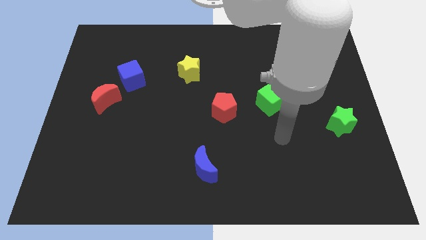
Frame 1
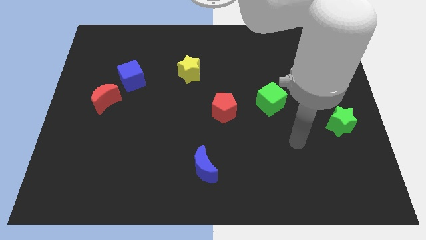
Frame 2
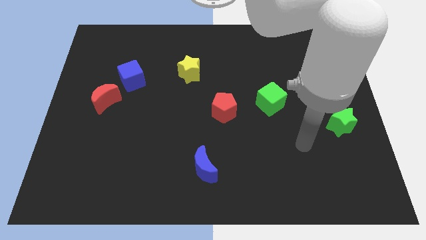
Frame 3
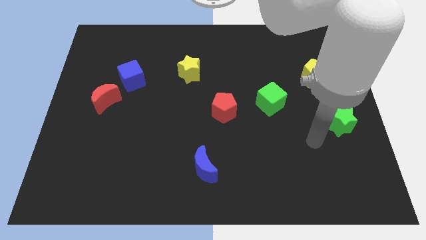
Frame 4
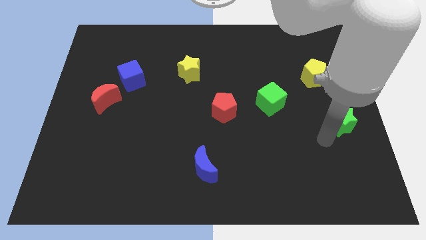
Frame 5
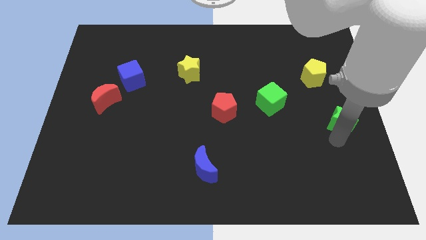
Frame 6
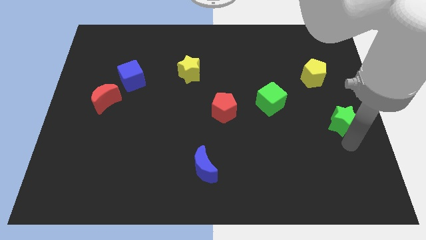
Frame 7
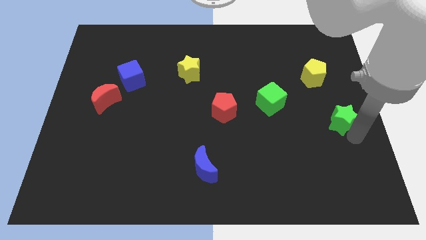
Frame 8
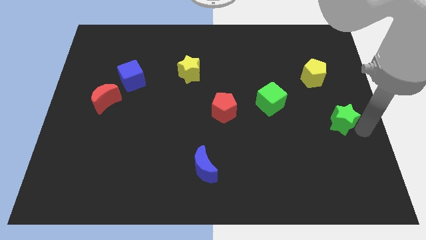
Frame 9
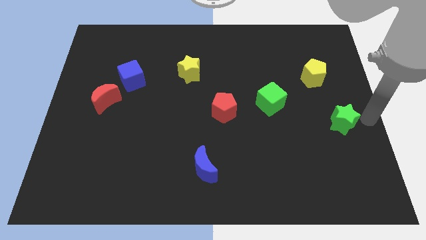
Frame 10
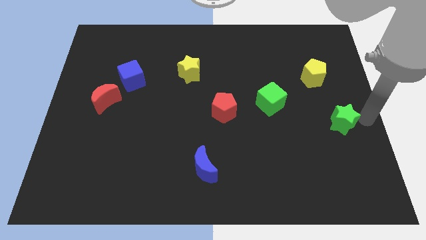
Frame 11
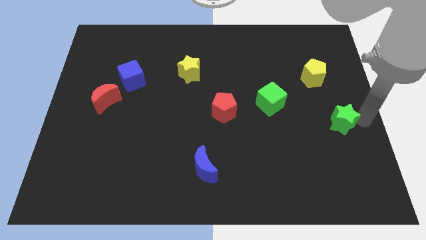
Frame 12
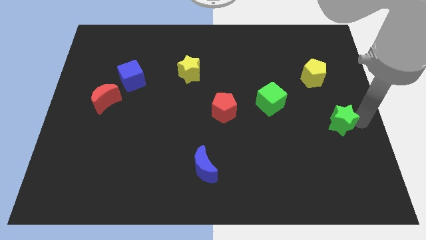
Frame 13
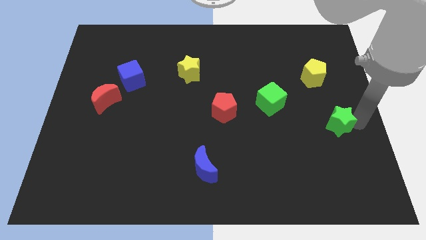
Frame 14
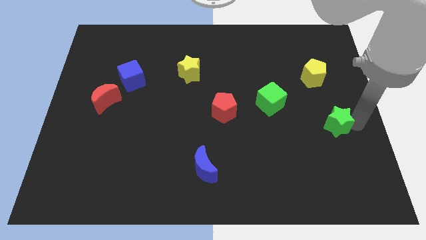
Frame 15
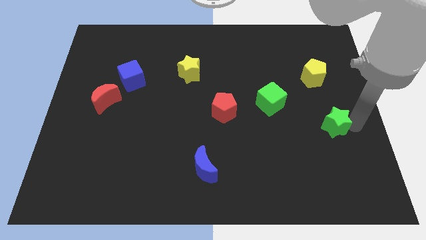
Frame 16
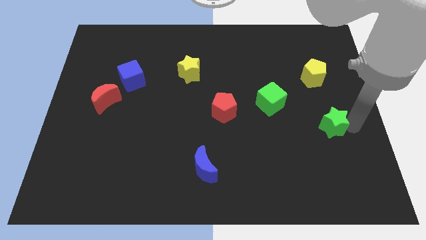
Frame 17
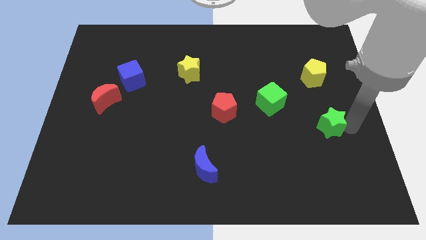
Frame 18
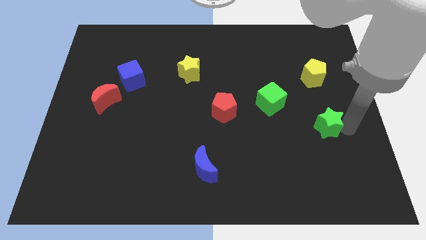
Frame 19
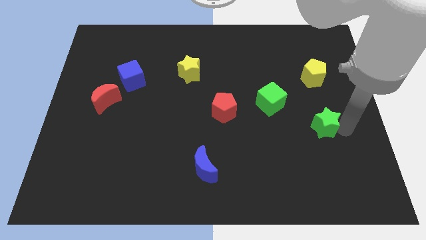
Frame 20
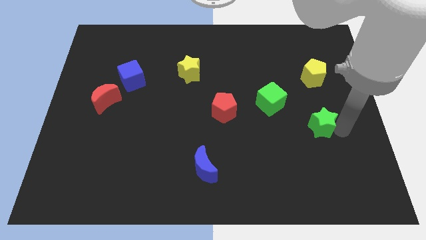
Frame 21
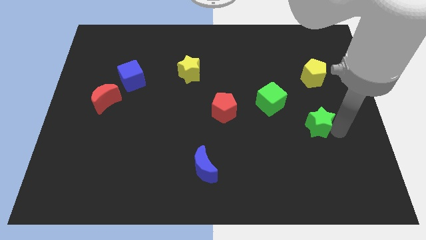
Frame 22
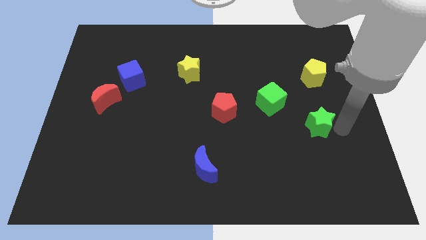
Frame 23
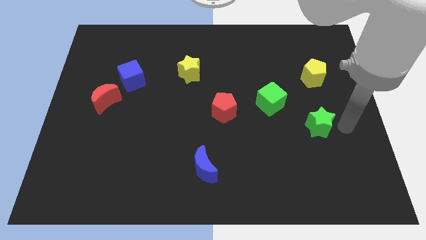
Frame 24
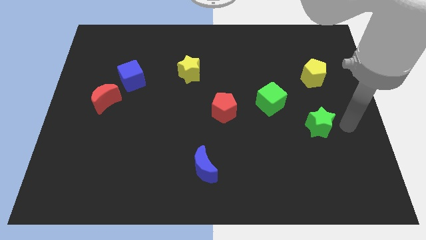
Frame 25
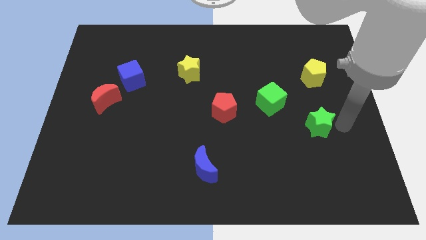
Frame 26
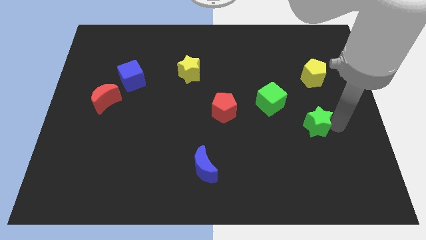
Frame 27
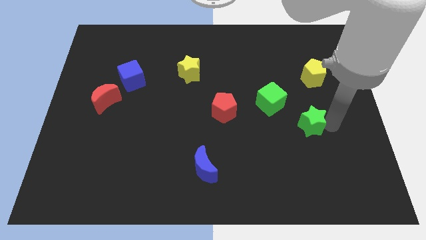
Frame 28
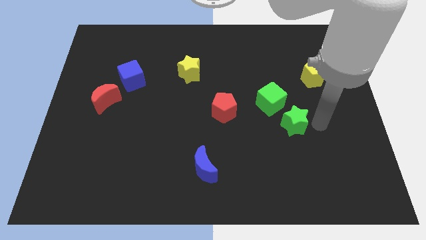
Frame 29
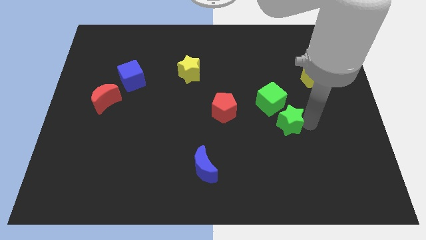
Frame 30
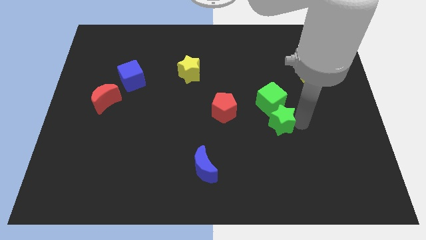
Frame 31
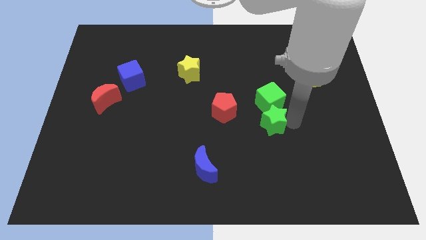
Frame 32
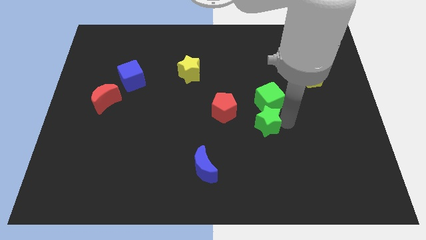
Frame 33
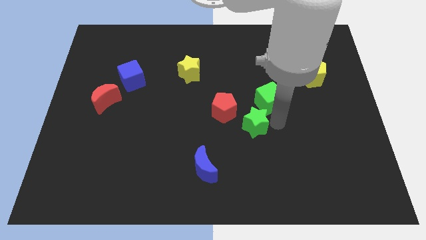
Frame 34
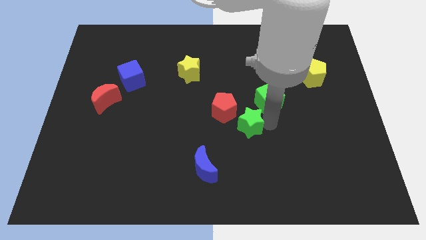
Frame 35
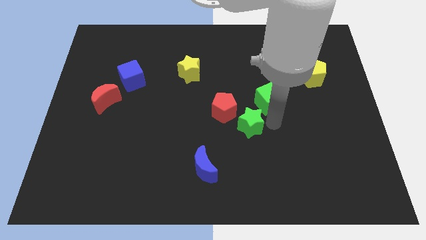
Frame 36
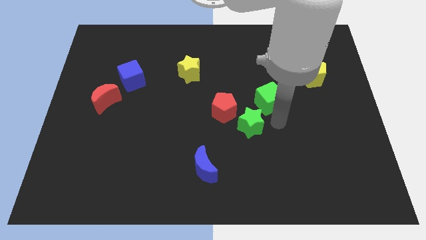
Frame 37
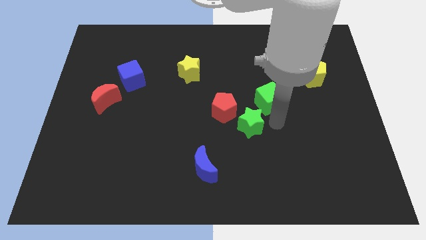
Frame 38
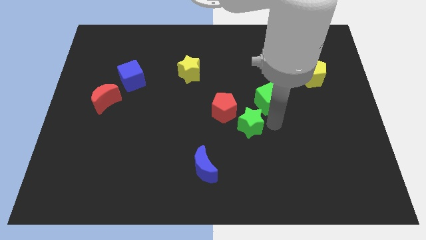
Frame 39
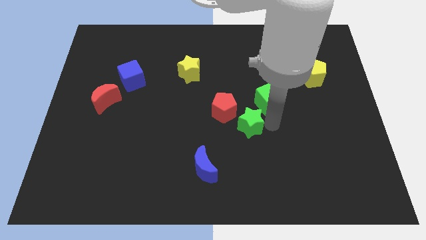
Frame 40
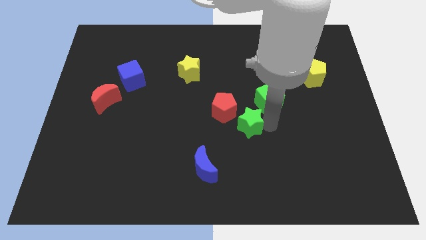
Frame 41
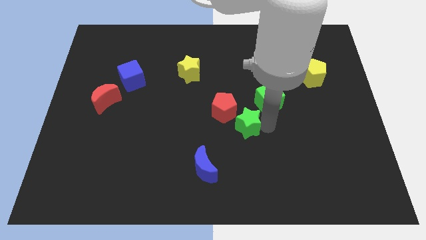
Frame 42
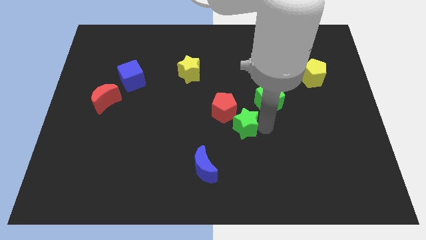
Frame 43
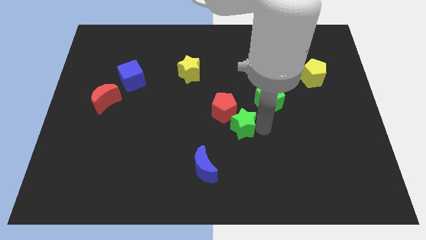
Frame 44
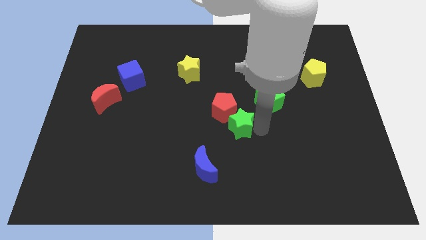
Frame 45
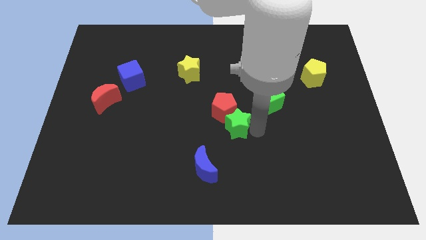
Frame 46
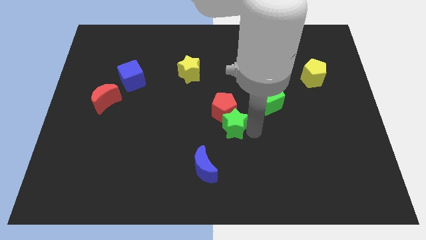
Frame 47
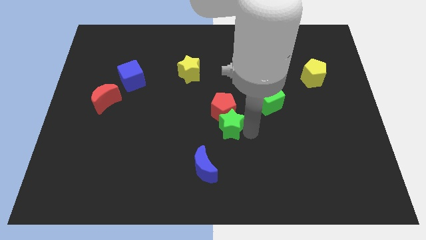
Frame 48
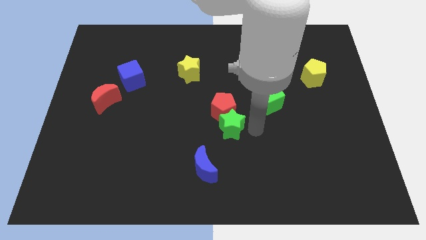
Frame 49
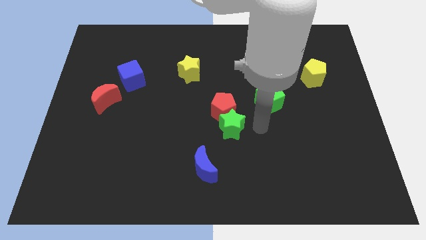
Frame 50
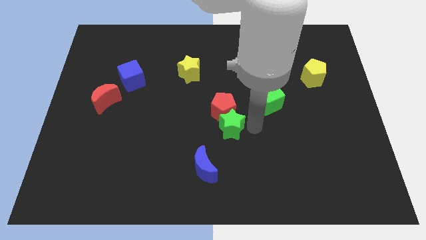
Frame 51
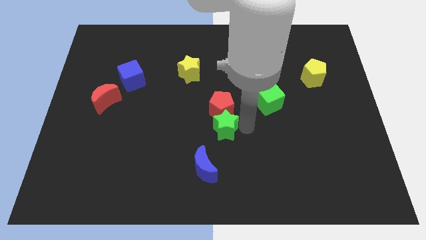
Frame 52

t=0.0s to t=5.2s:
slide the green star to the top side of the blue moon

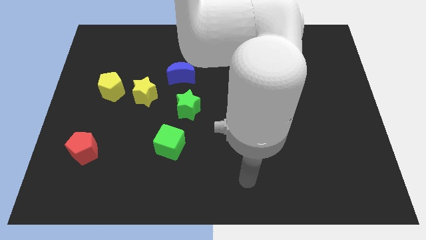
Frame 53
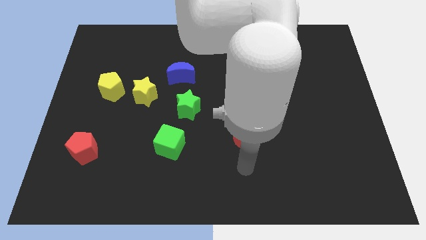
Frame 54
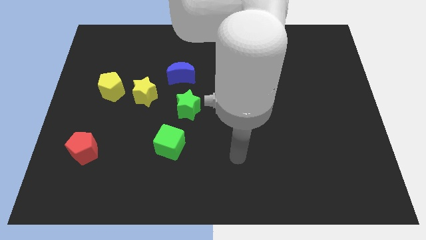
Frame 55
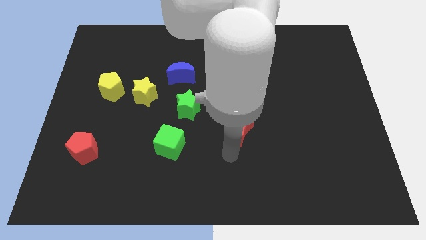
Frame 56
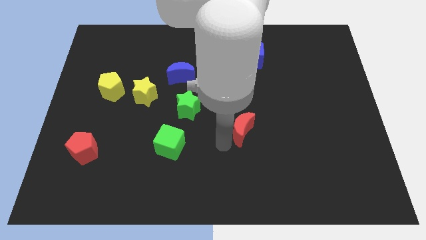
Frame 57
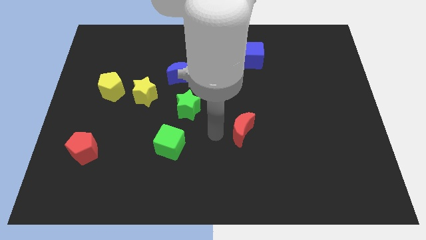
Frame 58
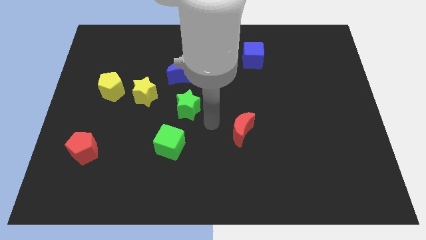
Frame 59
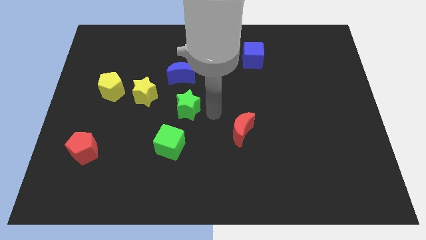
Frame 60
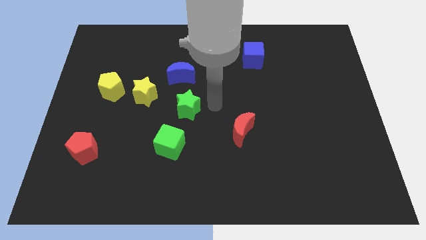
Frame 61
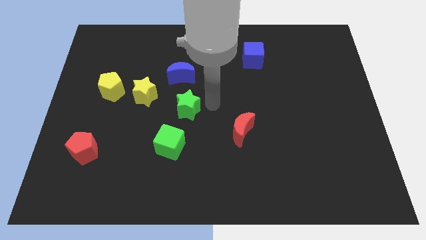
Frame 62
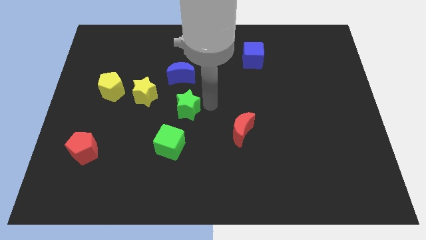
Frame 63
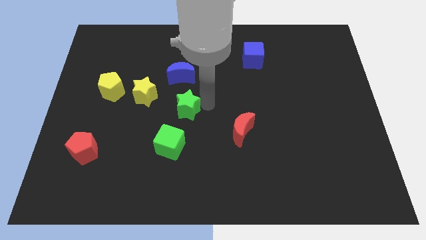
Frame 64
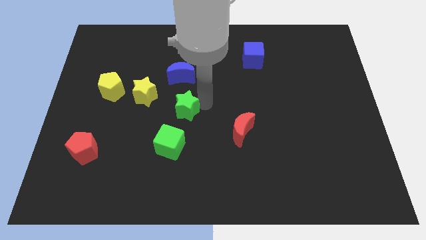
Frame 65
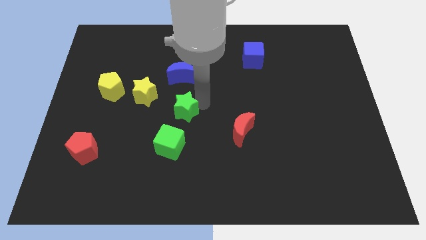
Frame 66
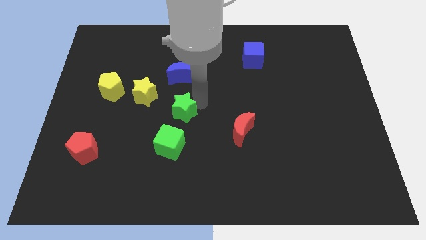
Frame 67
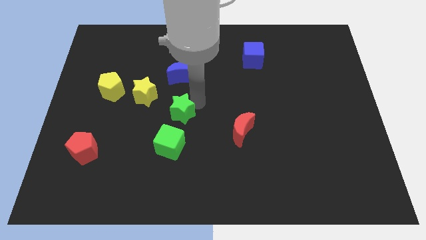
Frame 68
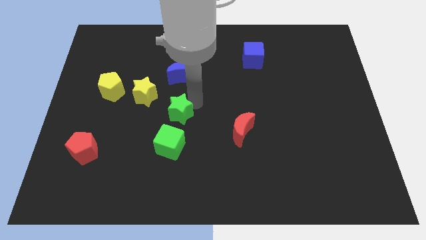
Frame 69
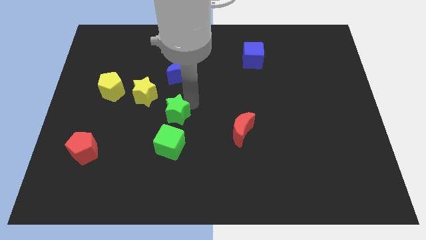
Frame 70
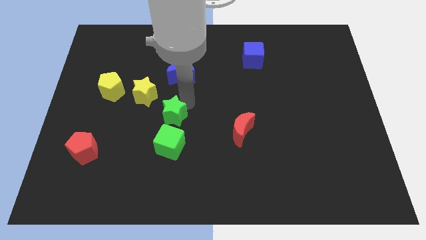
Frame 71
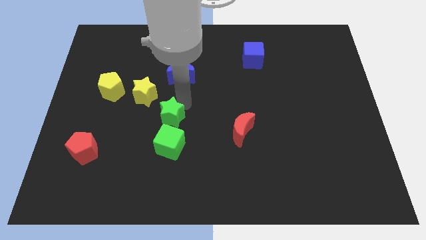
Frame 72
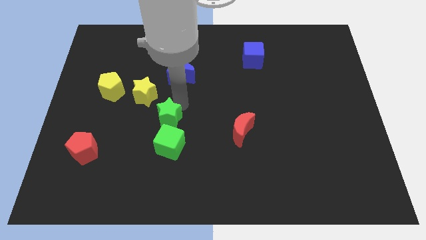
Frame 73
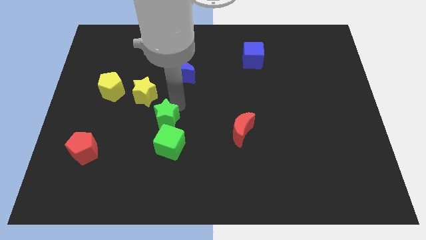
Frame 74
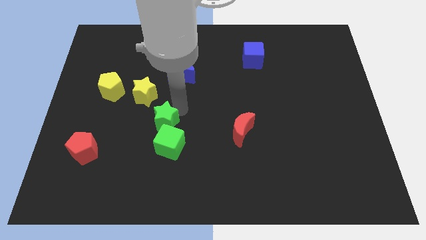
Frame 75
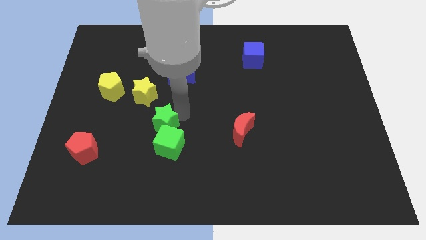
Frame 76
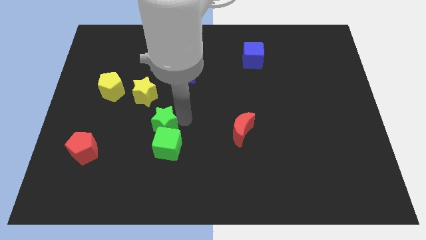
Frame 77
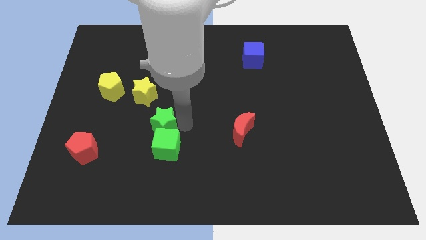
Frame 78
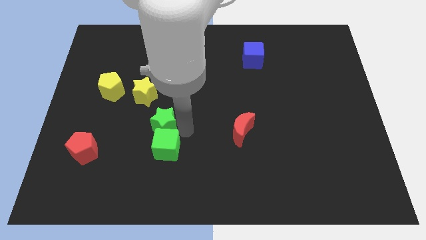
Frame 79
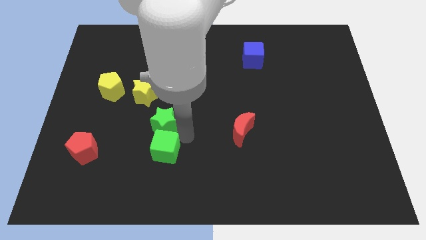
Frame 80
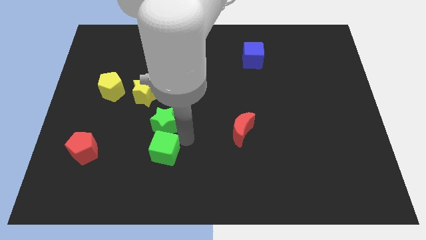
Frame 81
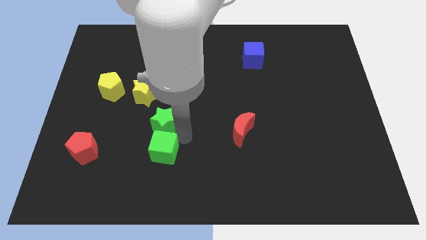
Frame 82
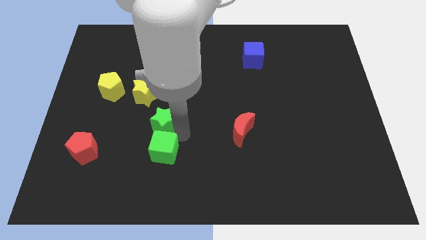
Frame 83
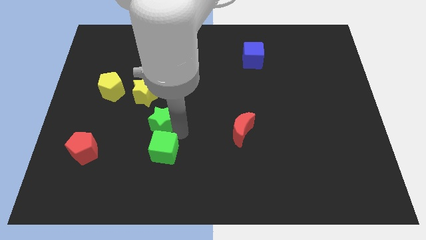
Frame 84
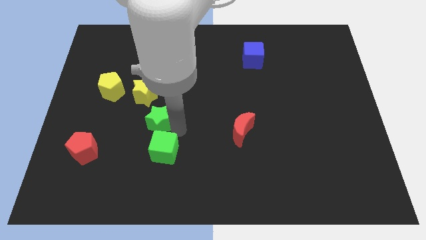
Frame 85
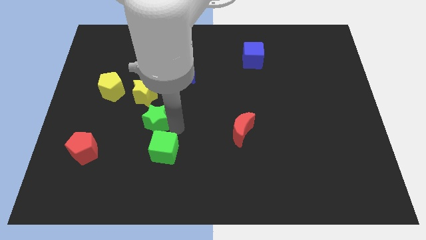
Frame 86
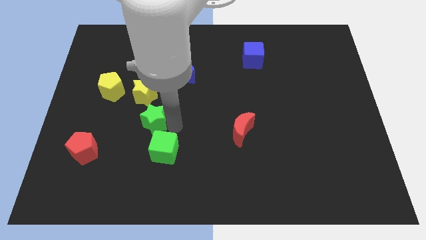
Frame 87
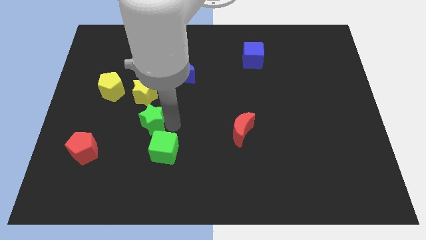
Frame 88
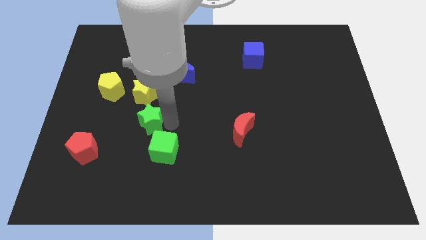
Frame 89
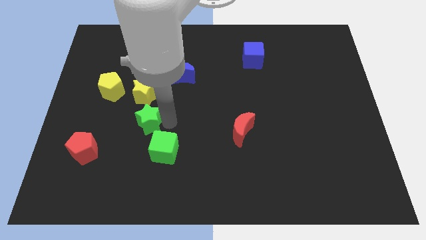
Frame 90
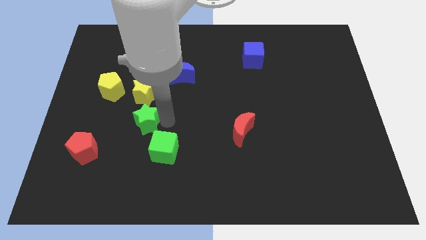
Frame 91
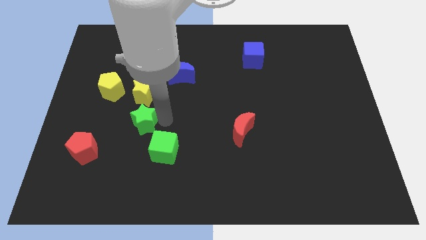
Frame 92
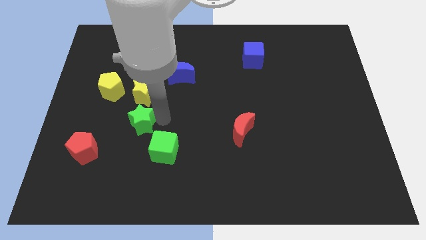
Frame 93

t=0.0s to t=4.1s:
put the green star to the bottom right side of the yellow pentagon
